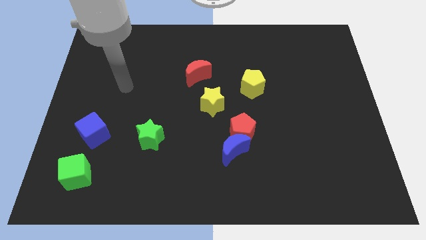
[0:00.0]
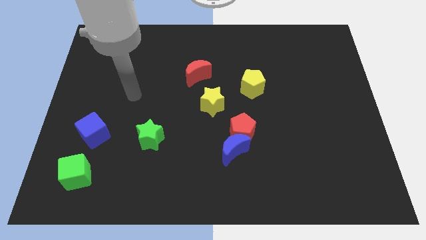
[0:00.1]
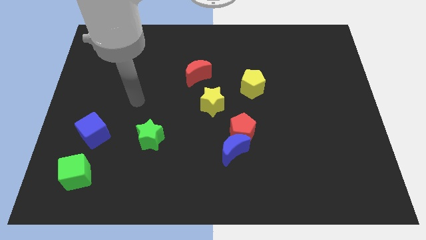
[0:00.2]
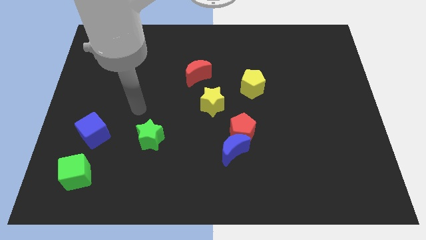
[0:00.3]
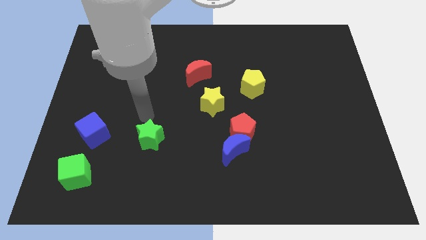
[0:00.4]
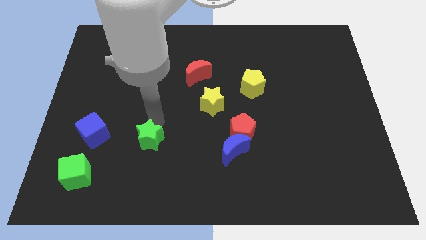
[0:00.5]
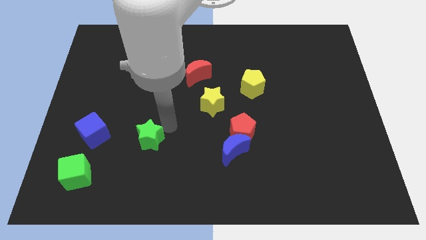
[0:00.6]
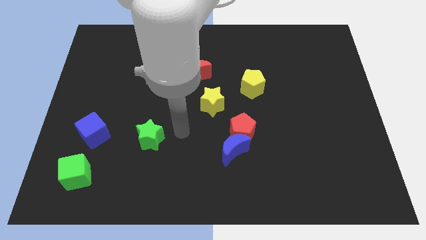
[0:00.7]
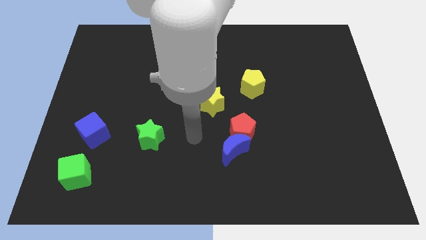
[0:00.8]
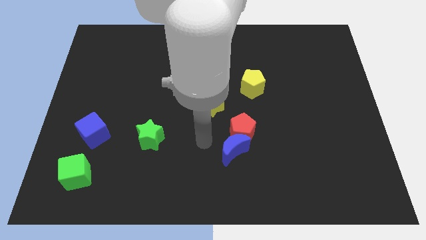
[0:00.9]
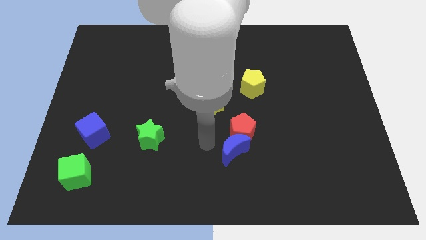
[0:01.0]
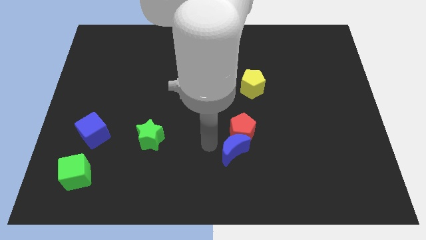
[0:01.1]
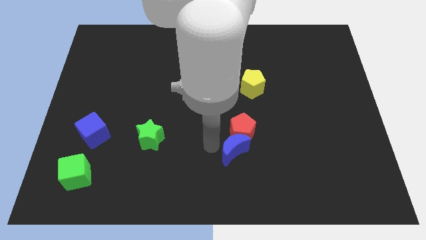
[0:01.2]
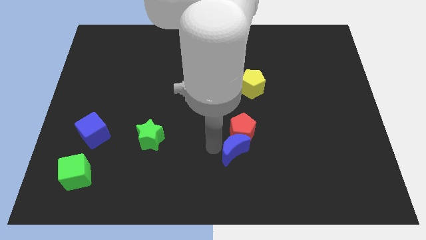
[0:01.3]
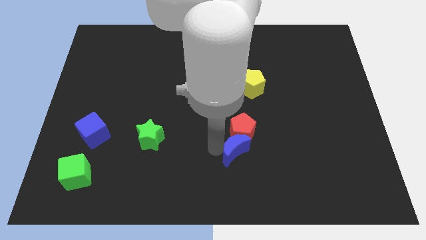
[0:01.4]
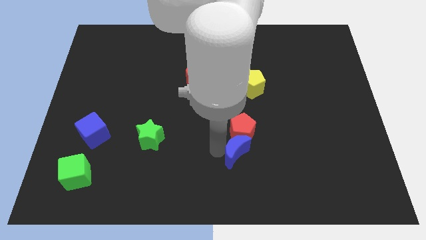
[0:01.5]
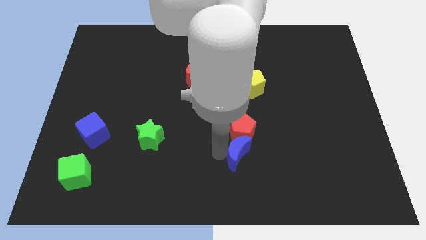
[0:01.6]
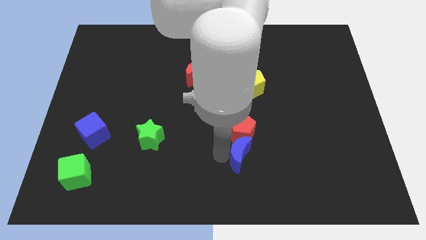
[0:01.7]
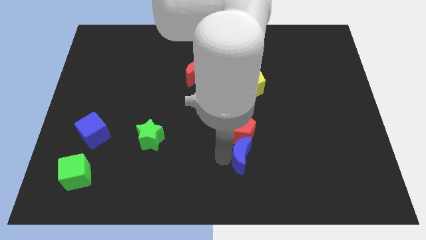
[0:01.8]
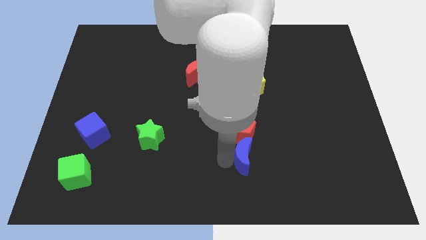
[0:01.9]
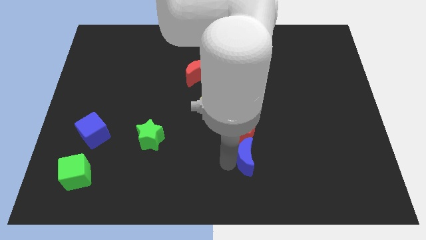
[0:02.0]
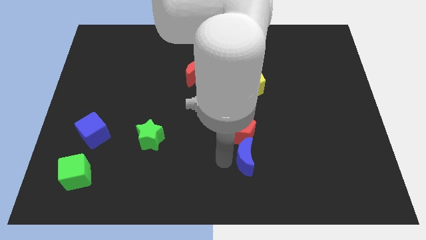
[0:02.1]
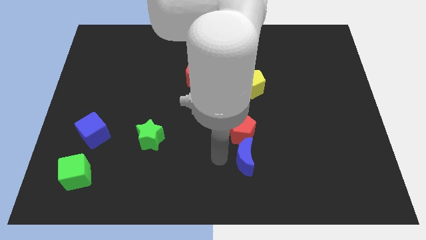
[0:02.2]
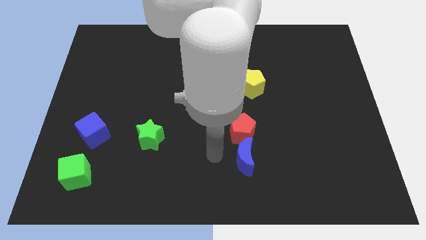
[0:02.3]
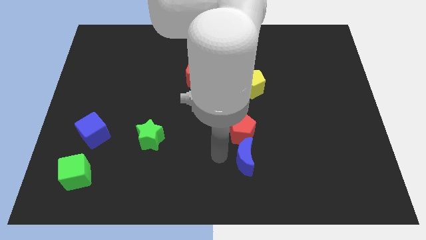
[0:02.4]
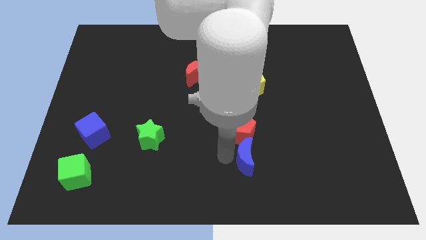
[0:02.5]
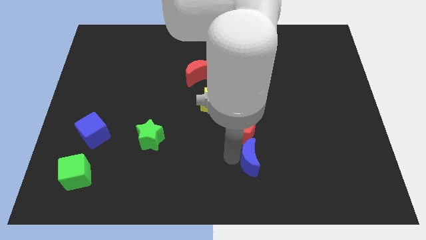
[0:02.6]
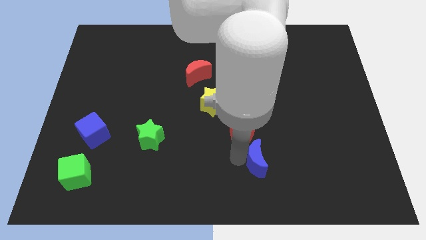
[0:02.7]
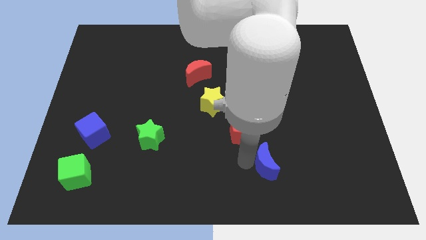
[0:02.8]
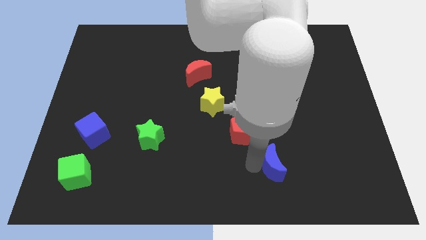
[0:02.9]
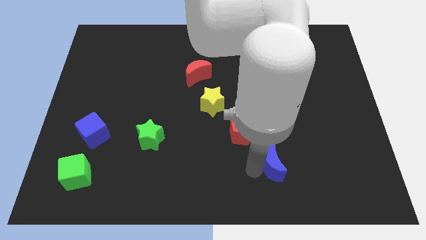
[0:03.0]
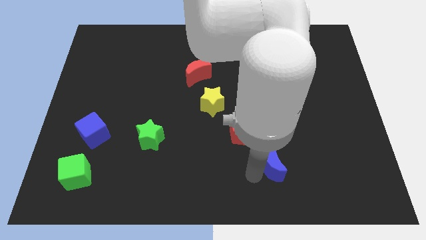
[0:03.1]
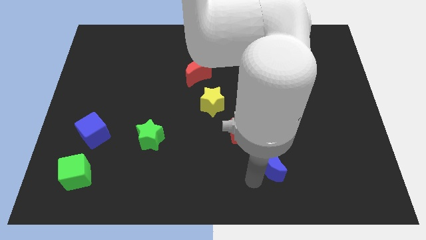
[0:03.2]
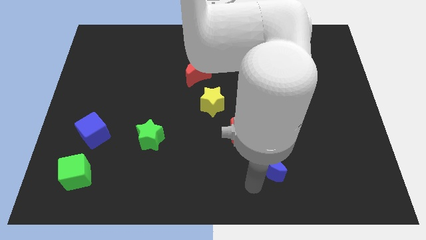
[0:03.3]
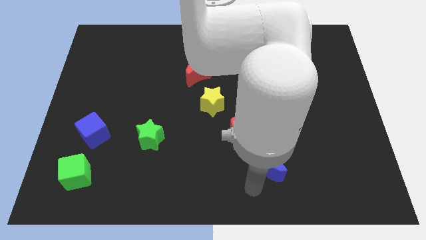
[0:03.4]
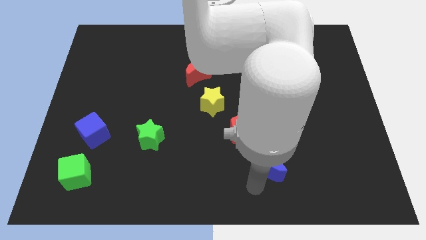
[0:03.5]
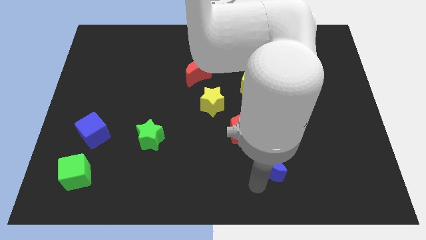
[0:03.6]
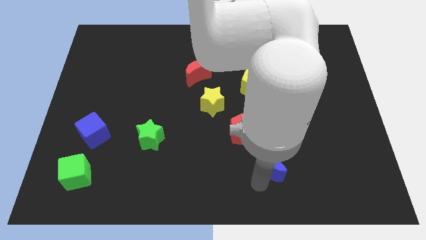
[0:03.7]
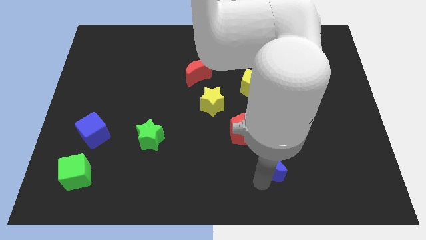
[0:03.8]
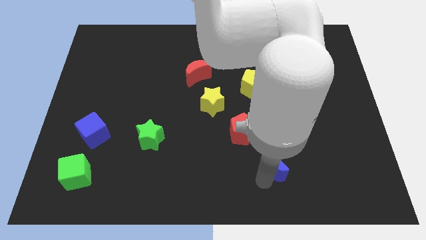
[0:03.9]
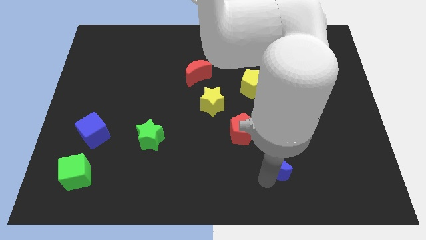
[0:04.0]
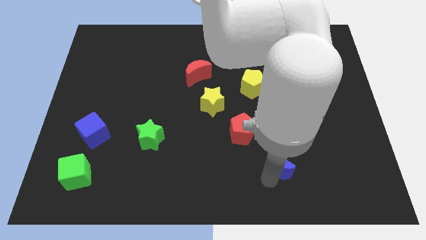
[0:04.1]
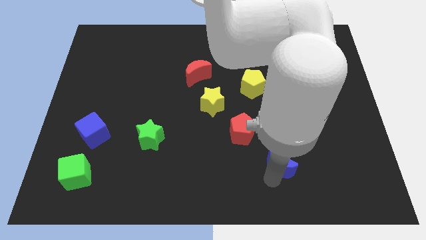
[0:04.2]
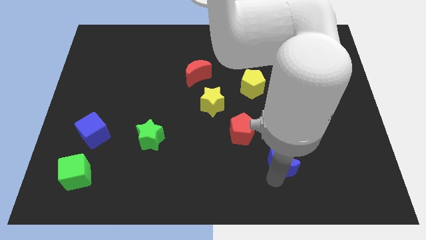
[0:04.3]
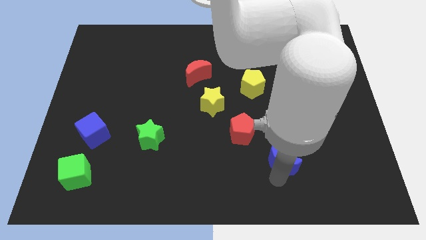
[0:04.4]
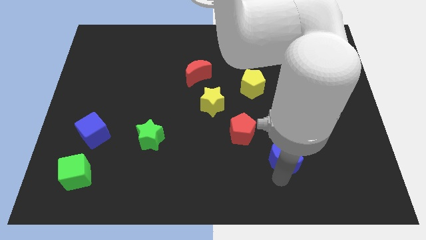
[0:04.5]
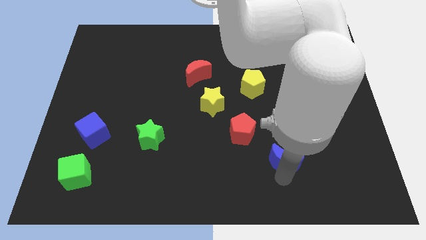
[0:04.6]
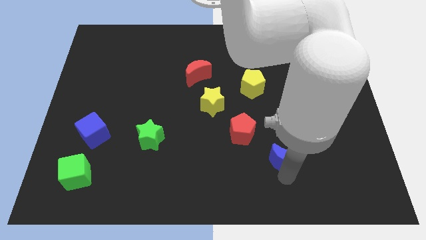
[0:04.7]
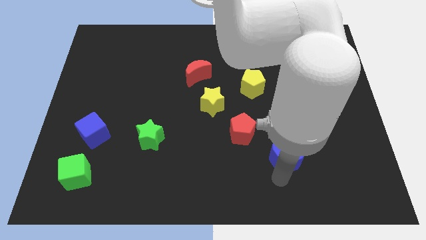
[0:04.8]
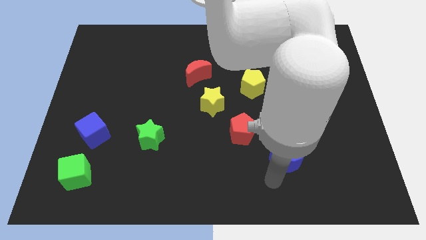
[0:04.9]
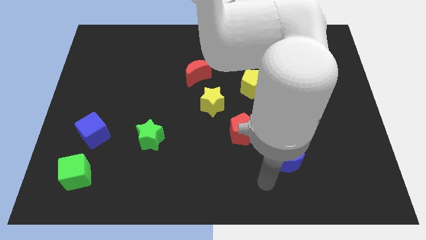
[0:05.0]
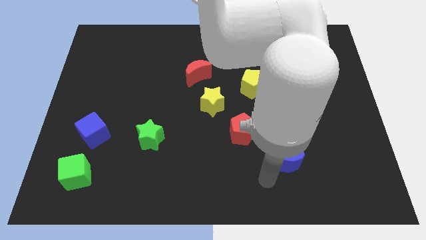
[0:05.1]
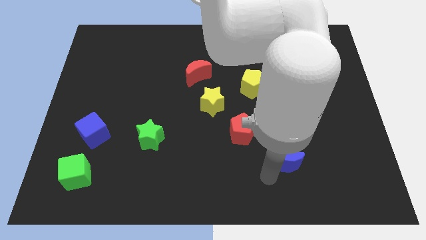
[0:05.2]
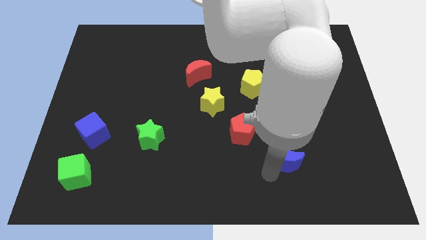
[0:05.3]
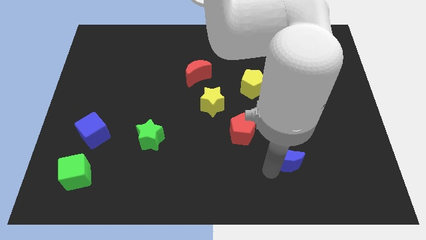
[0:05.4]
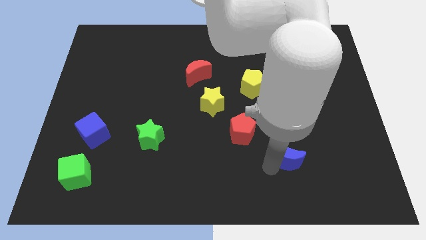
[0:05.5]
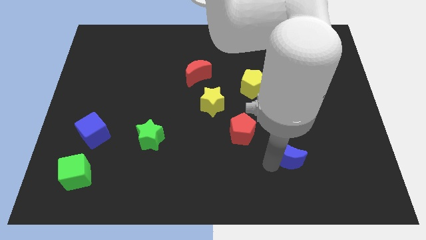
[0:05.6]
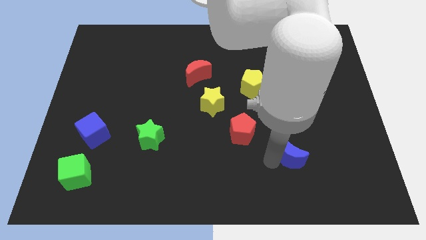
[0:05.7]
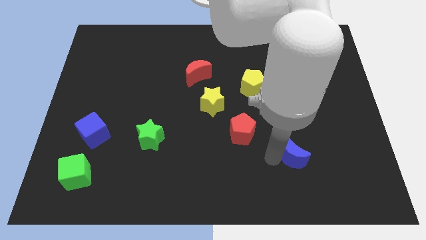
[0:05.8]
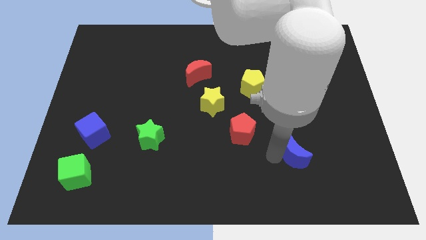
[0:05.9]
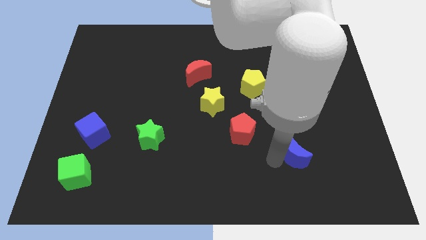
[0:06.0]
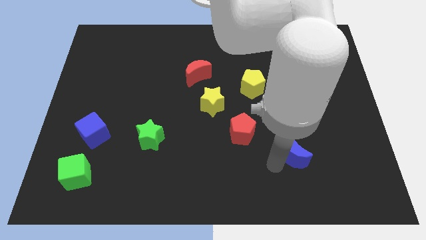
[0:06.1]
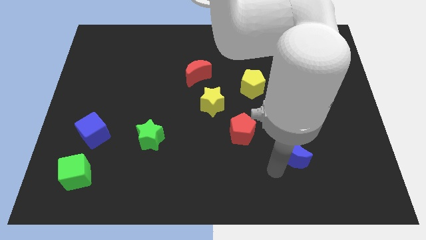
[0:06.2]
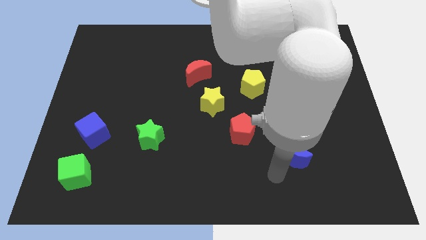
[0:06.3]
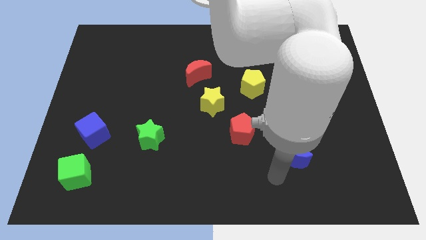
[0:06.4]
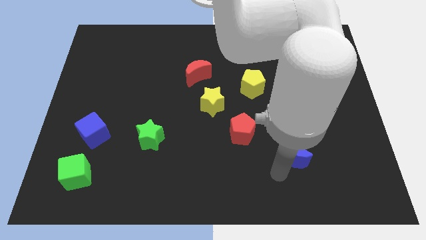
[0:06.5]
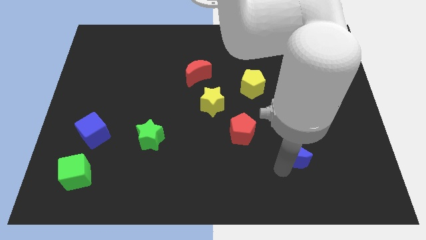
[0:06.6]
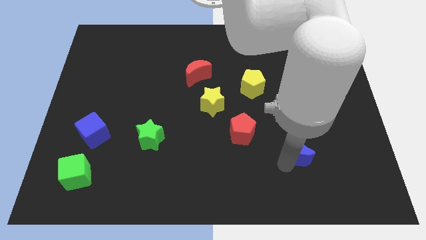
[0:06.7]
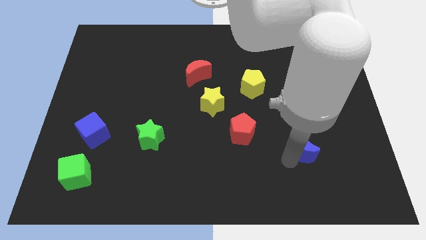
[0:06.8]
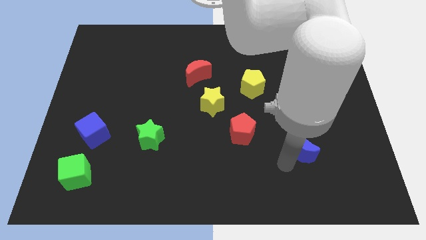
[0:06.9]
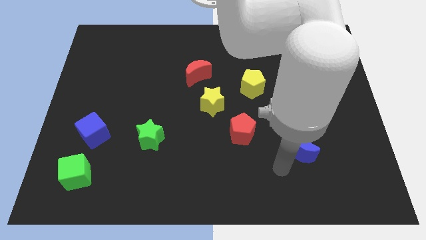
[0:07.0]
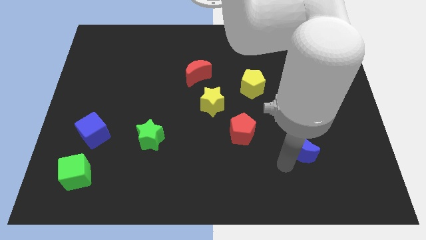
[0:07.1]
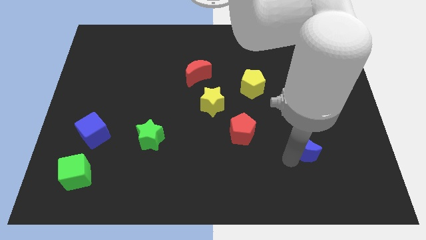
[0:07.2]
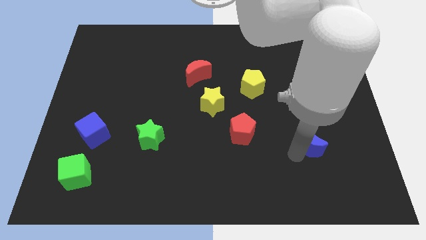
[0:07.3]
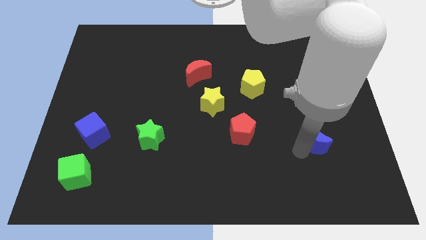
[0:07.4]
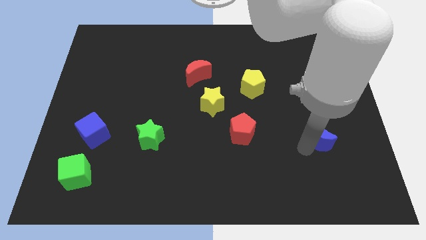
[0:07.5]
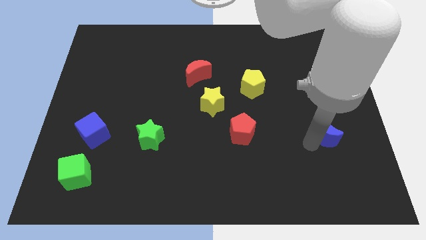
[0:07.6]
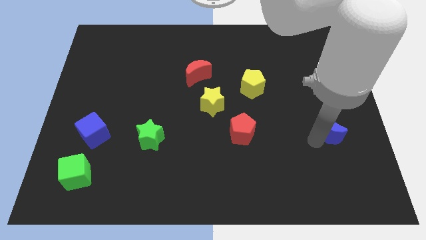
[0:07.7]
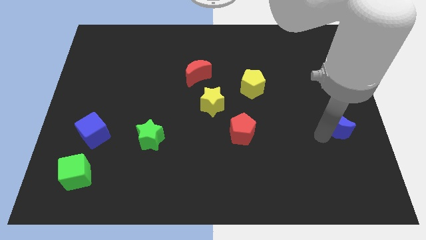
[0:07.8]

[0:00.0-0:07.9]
put the blue moon to the right side of the board
